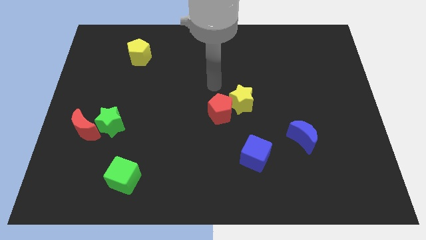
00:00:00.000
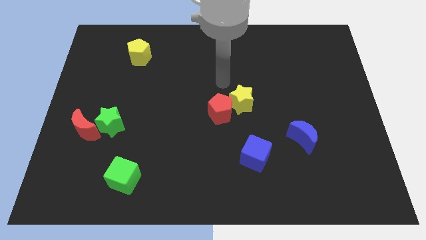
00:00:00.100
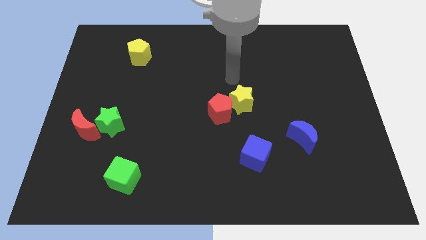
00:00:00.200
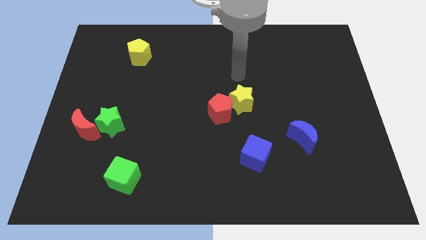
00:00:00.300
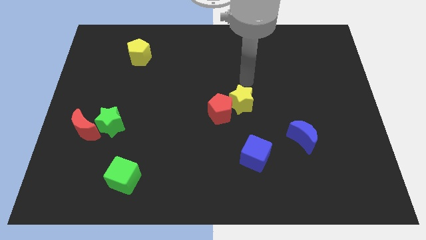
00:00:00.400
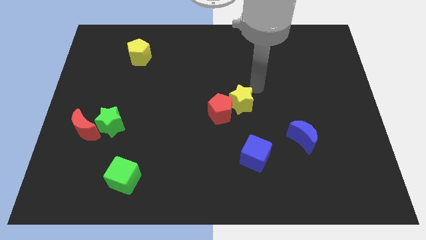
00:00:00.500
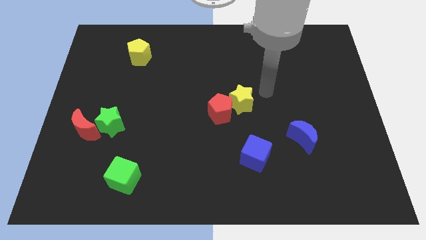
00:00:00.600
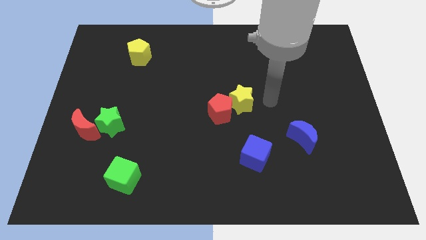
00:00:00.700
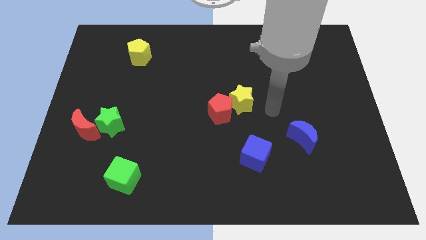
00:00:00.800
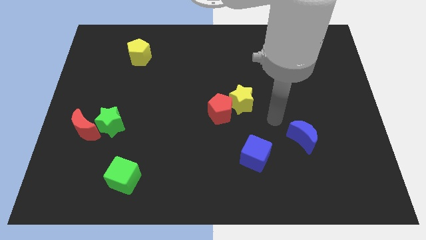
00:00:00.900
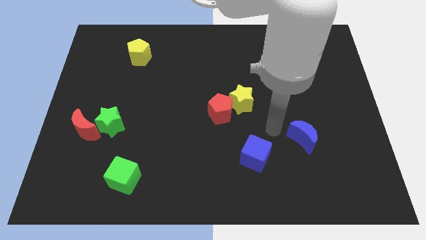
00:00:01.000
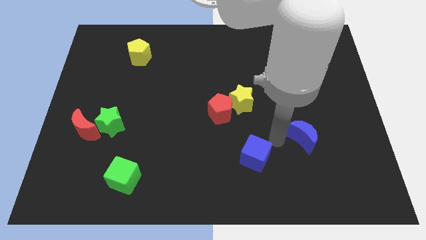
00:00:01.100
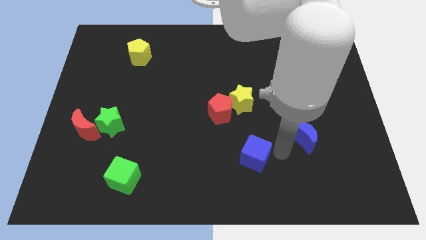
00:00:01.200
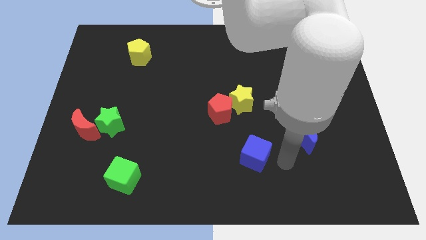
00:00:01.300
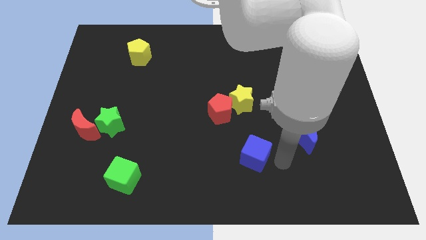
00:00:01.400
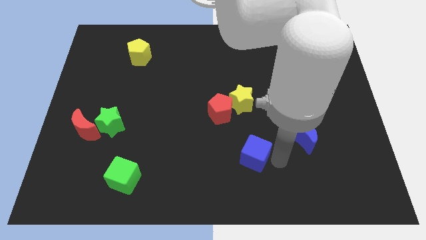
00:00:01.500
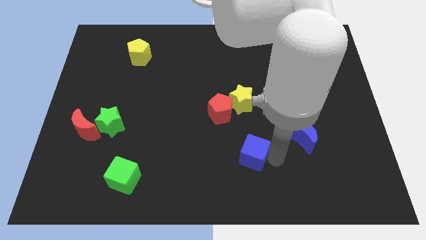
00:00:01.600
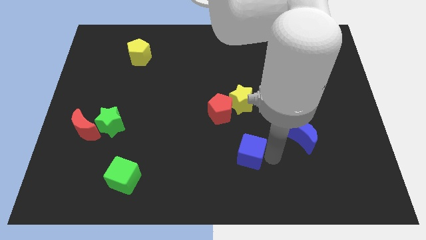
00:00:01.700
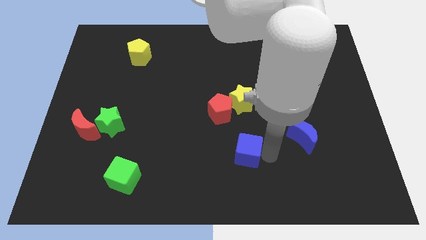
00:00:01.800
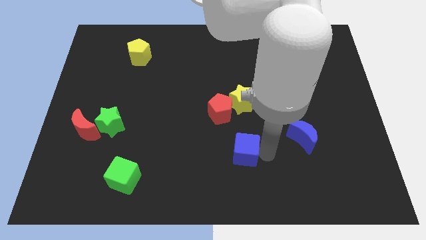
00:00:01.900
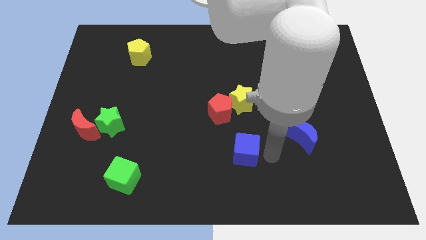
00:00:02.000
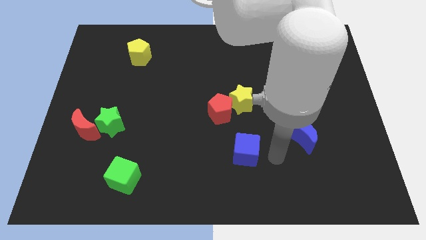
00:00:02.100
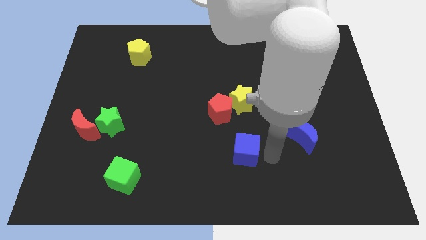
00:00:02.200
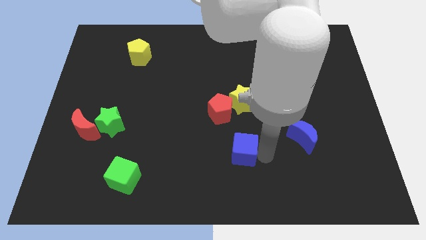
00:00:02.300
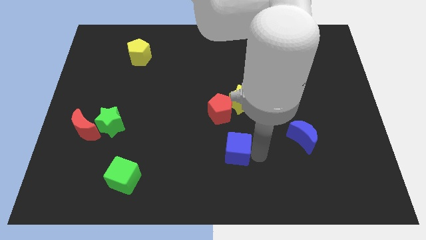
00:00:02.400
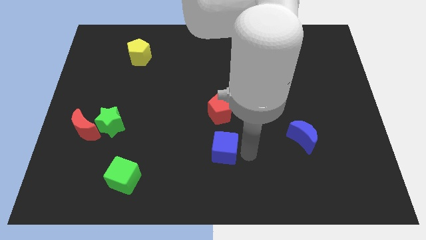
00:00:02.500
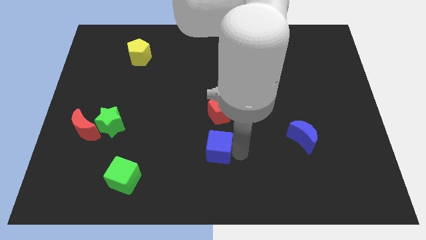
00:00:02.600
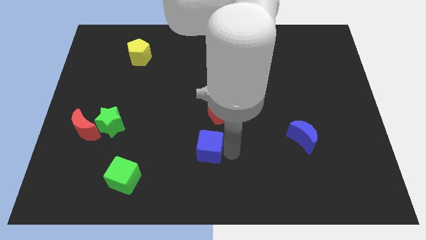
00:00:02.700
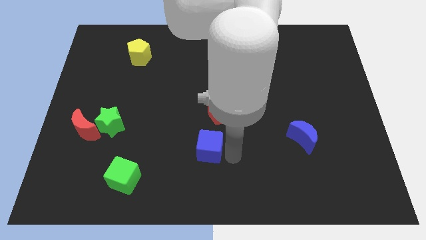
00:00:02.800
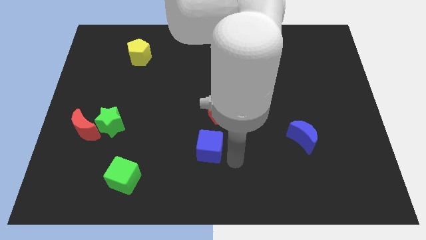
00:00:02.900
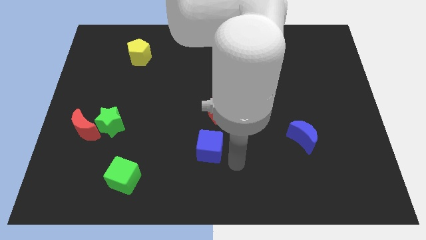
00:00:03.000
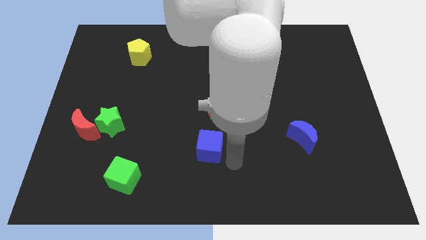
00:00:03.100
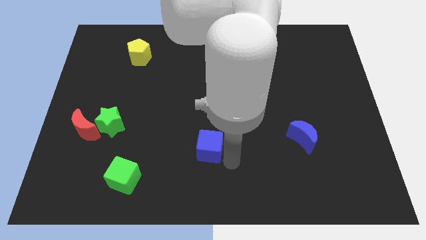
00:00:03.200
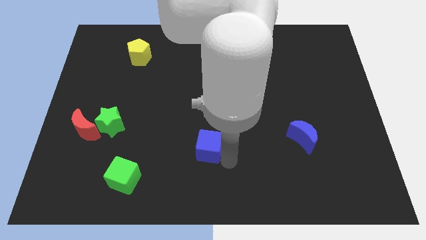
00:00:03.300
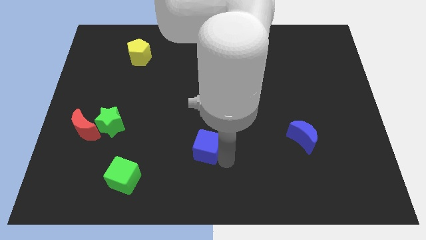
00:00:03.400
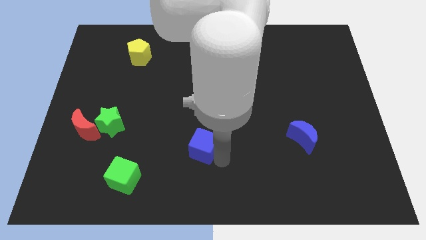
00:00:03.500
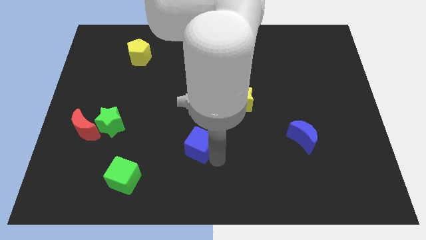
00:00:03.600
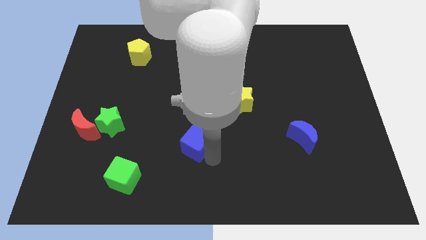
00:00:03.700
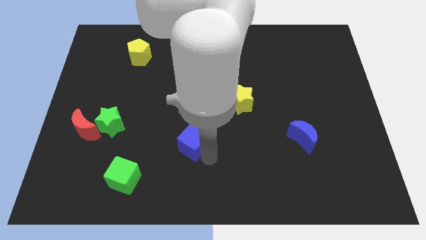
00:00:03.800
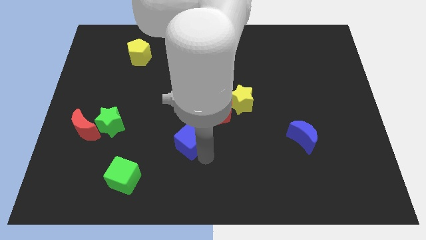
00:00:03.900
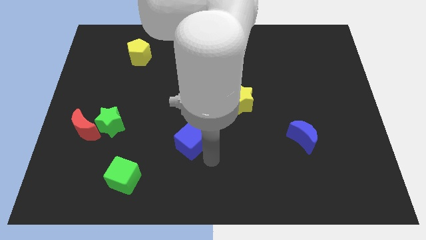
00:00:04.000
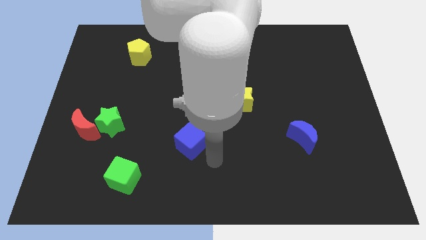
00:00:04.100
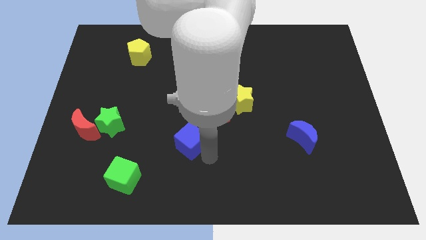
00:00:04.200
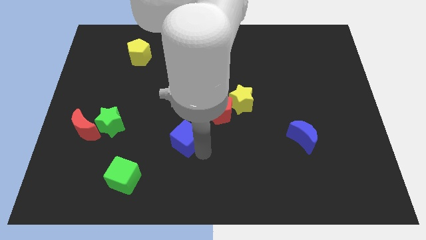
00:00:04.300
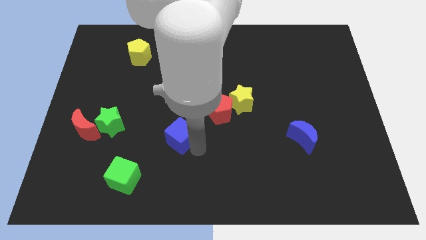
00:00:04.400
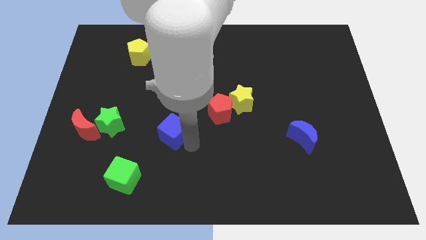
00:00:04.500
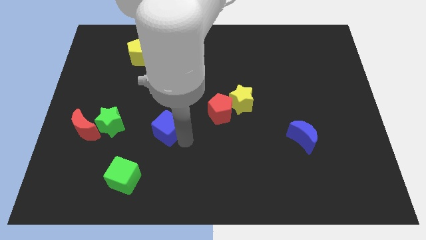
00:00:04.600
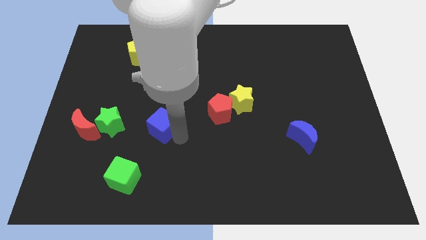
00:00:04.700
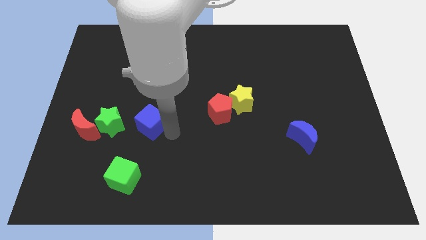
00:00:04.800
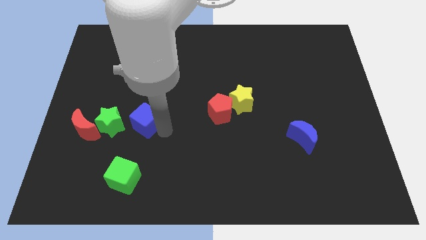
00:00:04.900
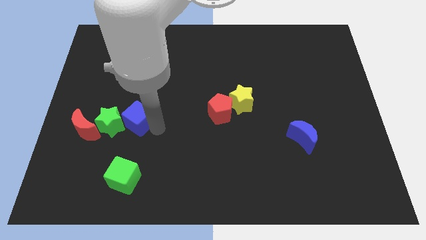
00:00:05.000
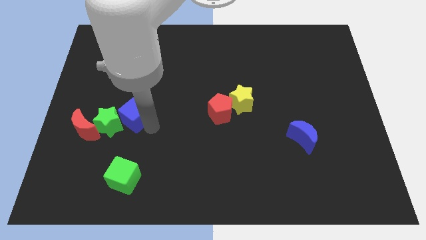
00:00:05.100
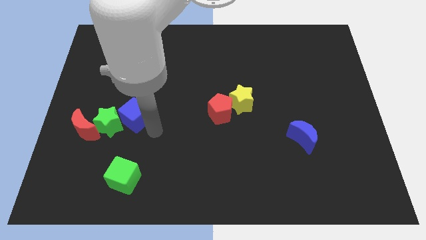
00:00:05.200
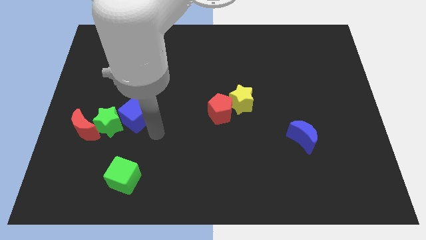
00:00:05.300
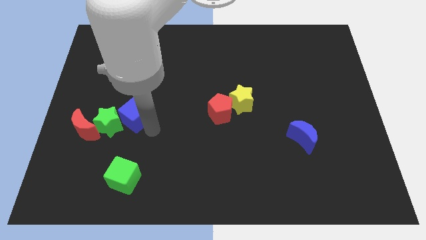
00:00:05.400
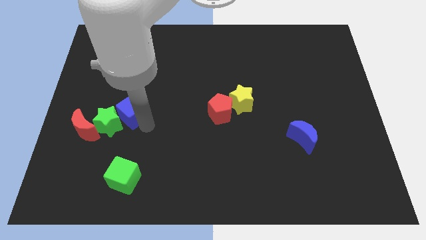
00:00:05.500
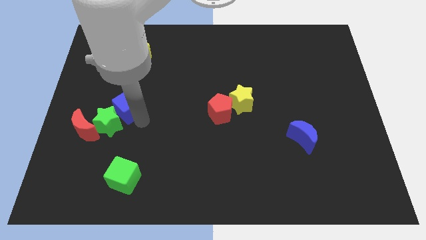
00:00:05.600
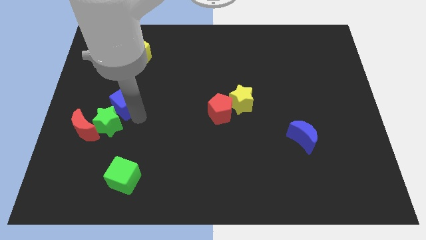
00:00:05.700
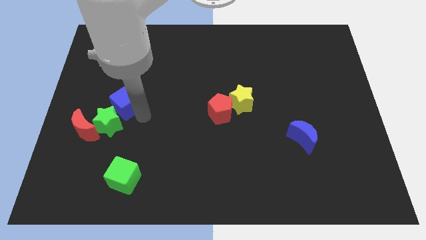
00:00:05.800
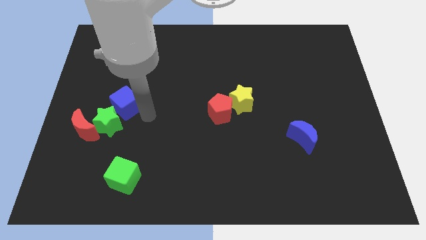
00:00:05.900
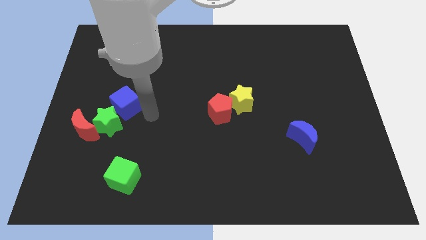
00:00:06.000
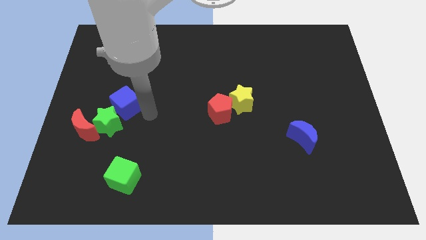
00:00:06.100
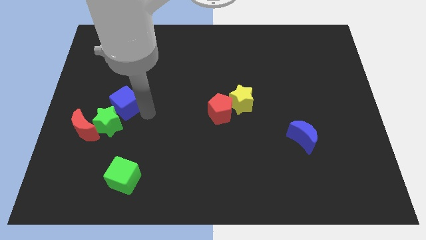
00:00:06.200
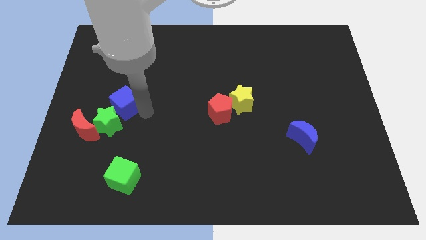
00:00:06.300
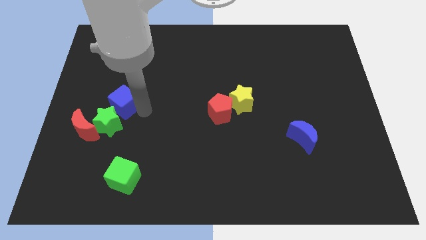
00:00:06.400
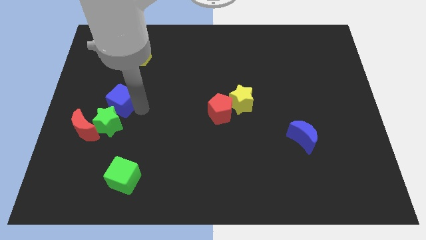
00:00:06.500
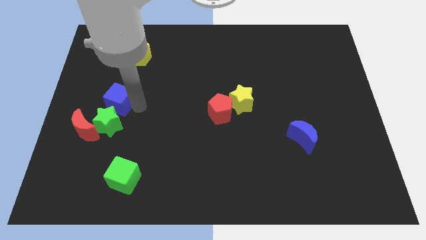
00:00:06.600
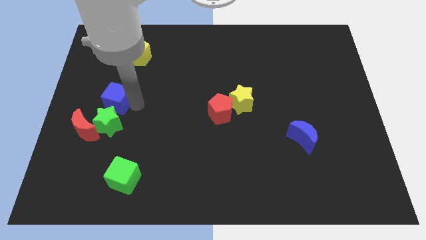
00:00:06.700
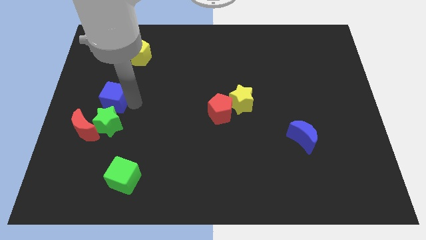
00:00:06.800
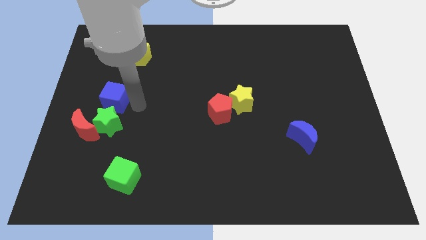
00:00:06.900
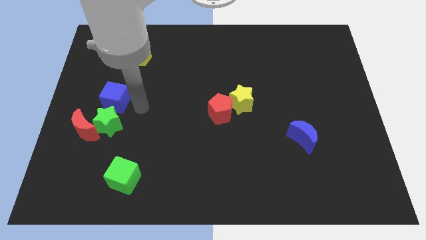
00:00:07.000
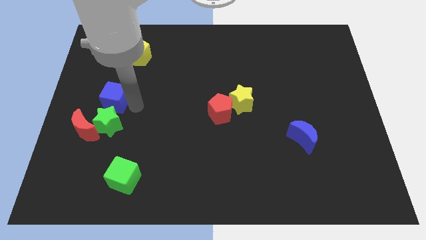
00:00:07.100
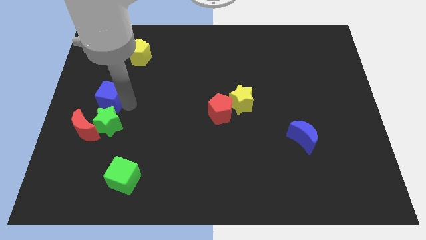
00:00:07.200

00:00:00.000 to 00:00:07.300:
push the blue cube to the top of the red moon

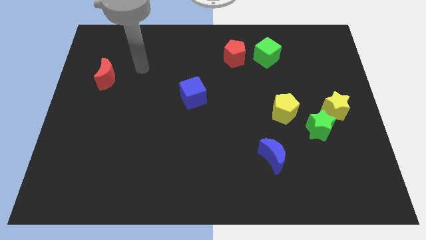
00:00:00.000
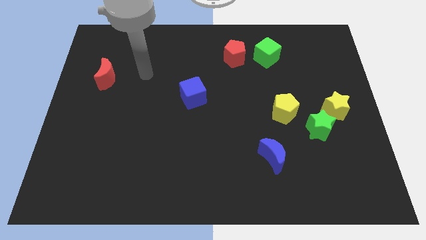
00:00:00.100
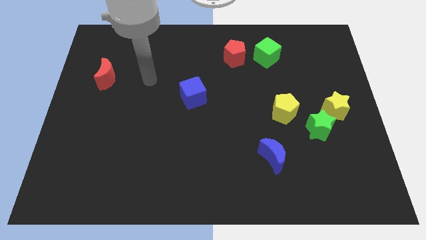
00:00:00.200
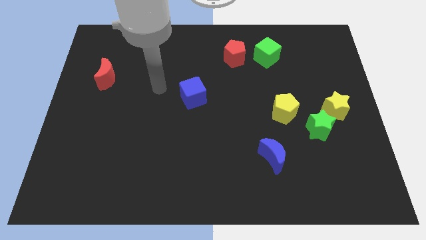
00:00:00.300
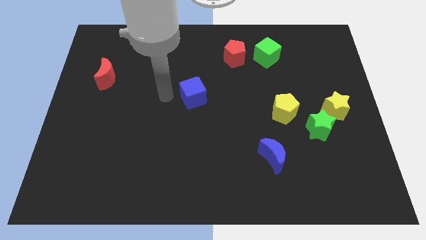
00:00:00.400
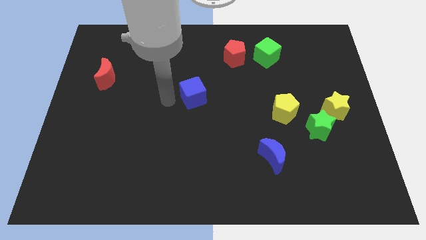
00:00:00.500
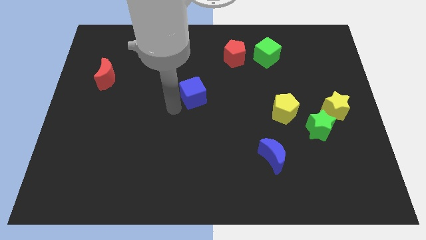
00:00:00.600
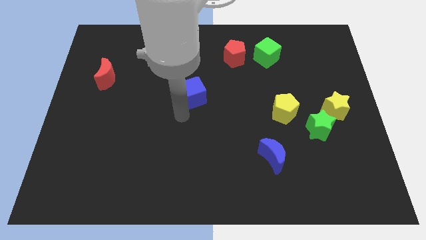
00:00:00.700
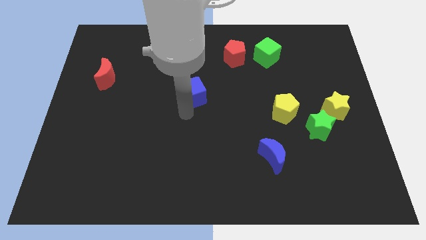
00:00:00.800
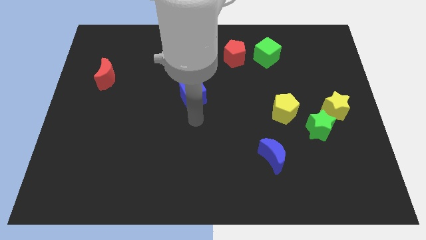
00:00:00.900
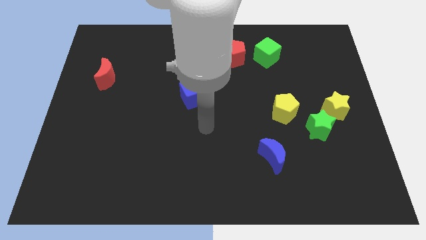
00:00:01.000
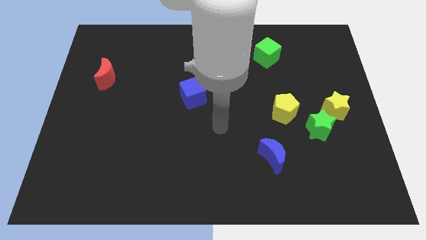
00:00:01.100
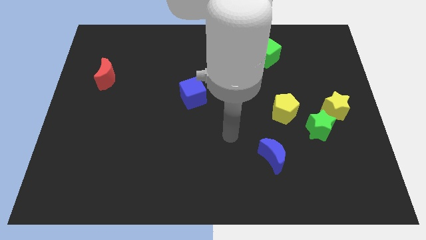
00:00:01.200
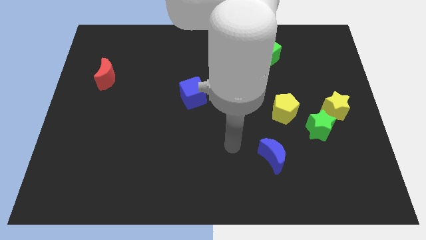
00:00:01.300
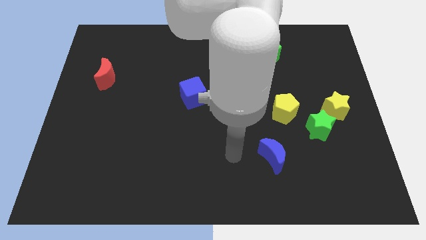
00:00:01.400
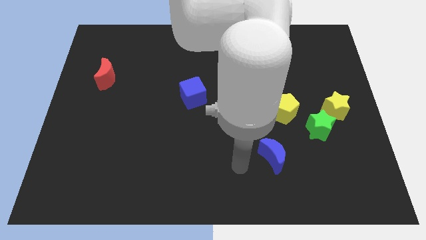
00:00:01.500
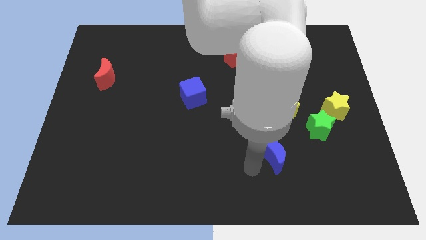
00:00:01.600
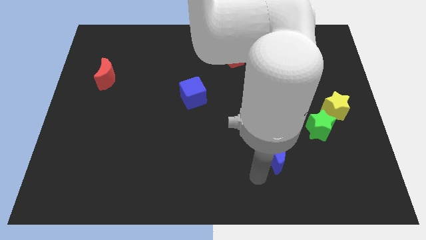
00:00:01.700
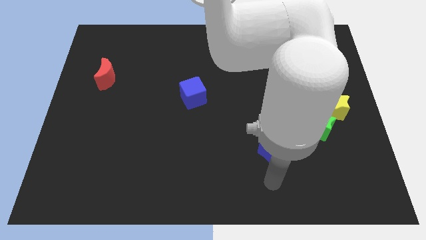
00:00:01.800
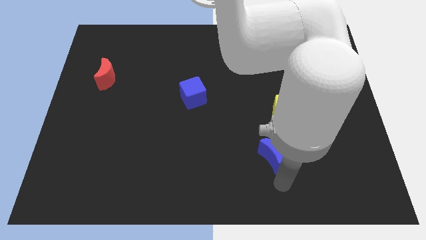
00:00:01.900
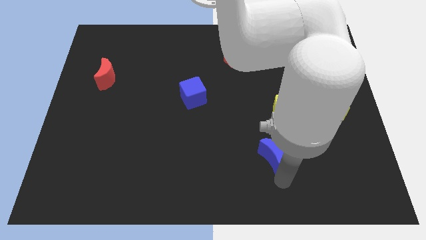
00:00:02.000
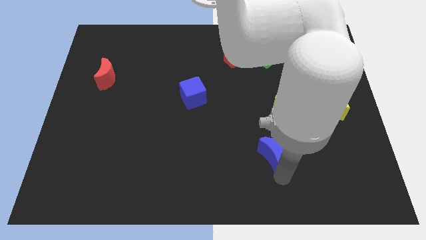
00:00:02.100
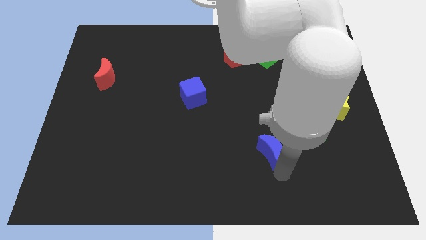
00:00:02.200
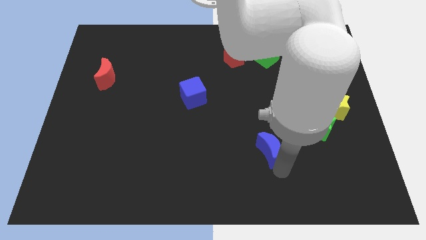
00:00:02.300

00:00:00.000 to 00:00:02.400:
put the blue moon to the bottom left of the yellow pentagon
